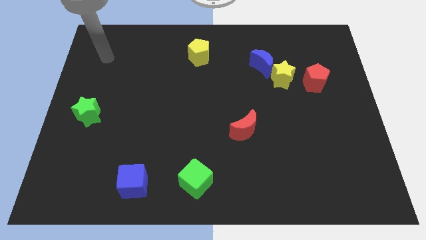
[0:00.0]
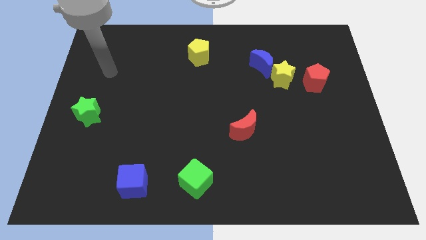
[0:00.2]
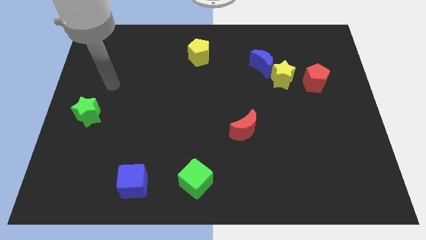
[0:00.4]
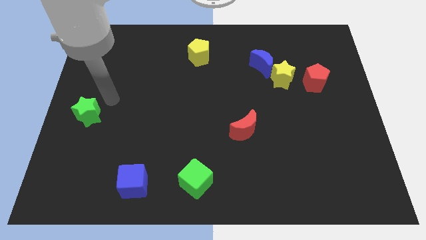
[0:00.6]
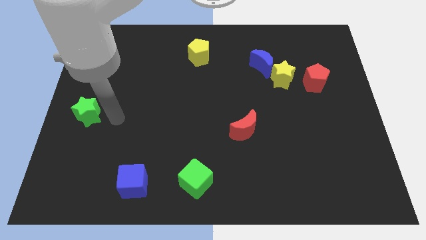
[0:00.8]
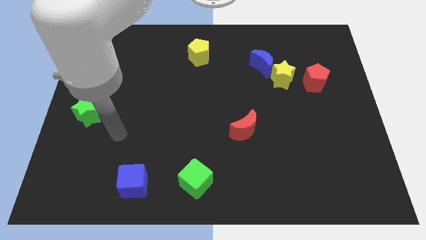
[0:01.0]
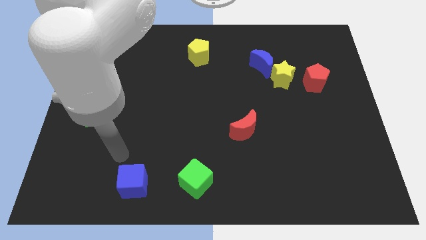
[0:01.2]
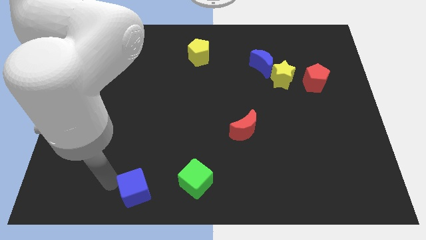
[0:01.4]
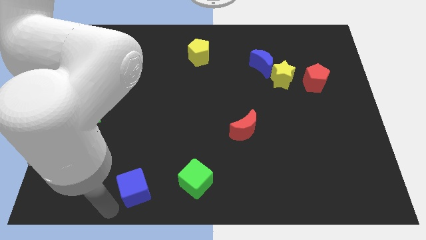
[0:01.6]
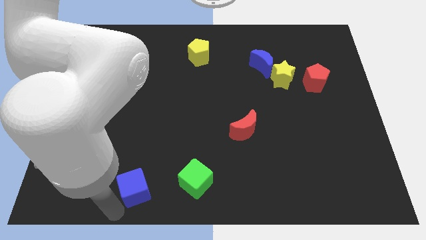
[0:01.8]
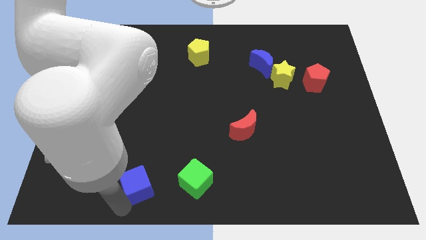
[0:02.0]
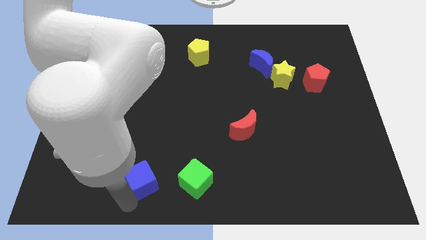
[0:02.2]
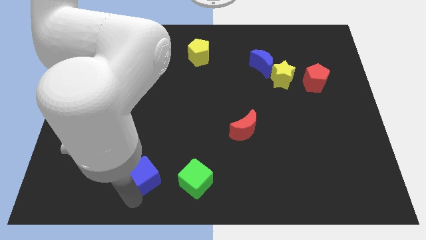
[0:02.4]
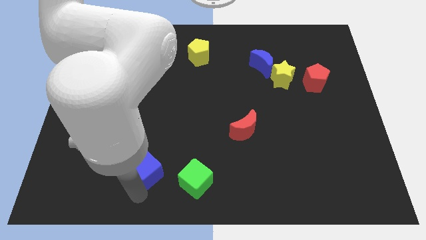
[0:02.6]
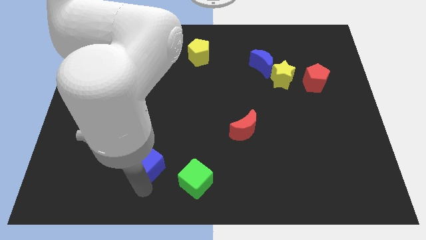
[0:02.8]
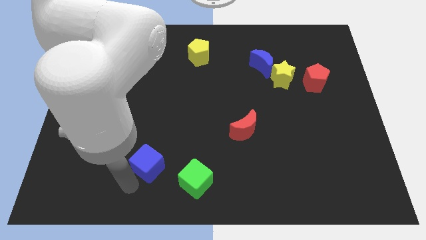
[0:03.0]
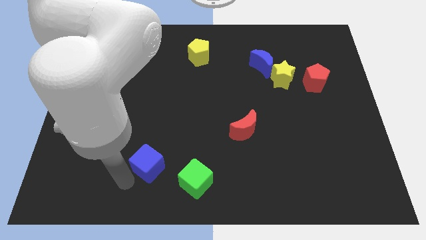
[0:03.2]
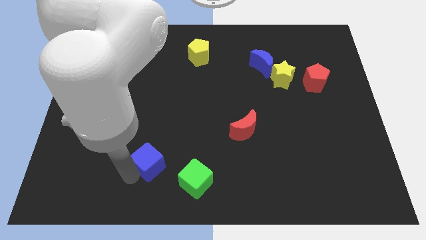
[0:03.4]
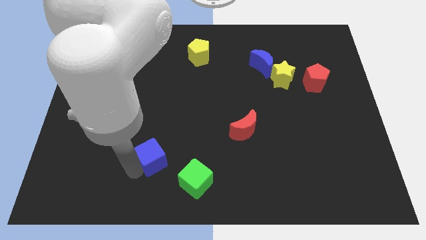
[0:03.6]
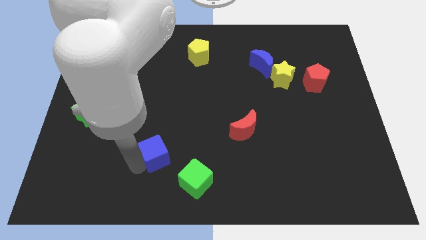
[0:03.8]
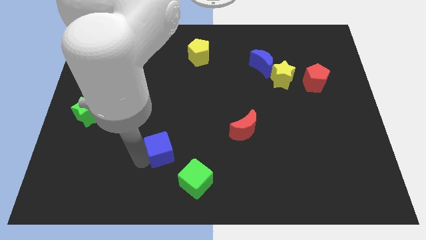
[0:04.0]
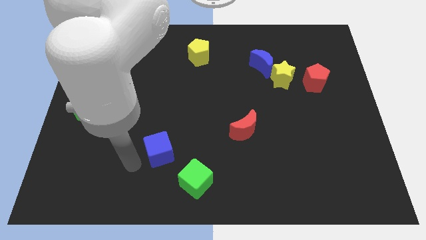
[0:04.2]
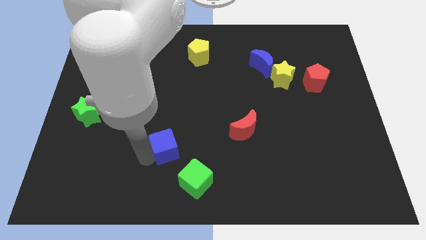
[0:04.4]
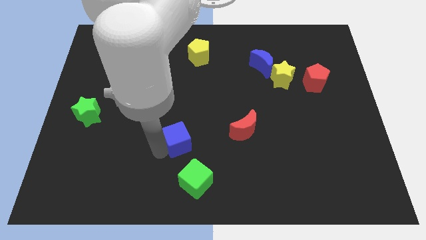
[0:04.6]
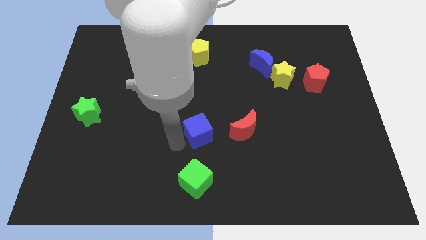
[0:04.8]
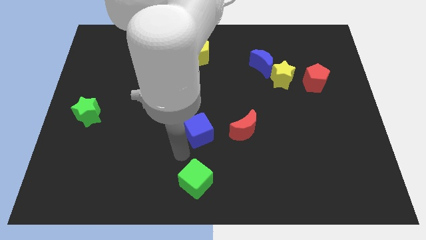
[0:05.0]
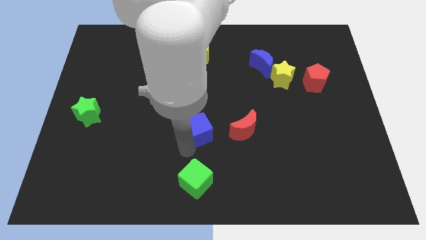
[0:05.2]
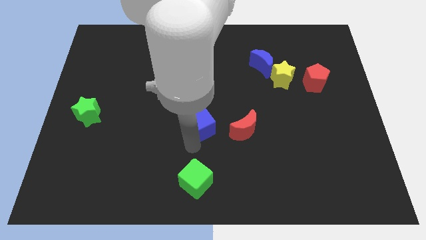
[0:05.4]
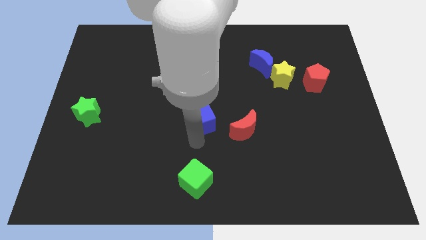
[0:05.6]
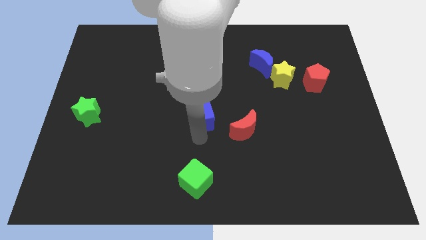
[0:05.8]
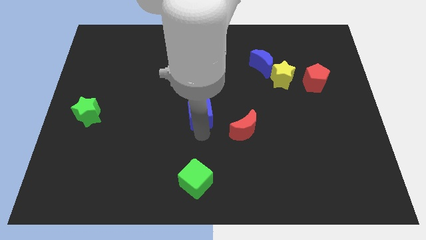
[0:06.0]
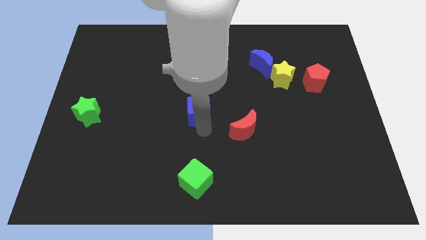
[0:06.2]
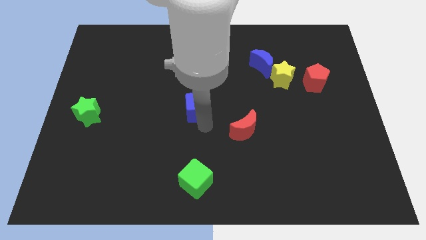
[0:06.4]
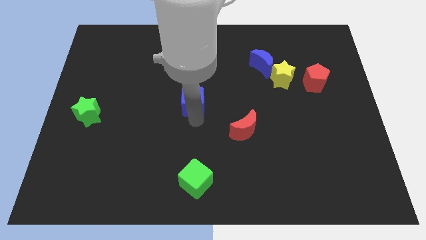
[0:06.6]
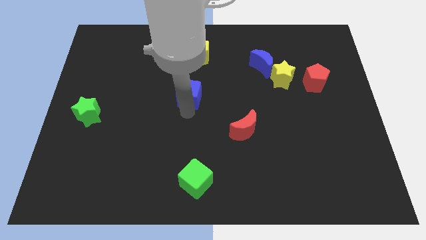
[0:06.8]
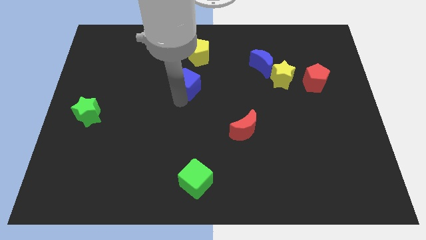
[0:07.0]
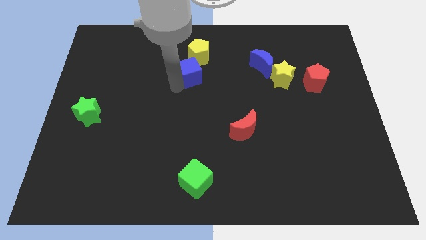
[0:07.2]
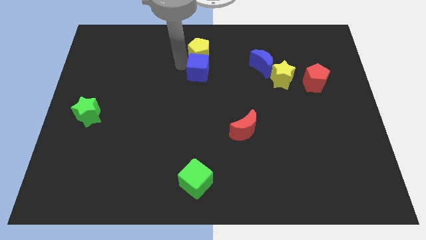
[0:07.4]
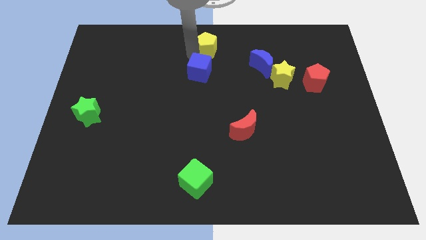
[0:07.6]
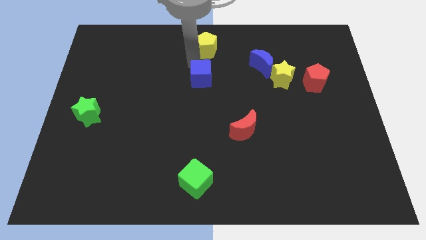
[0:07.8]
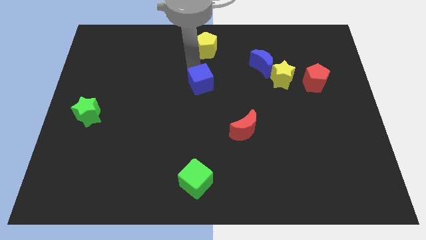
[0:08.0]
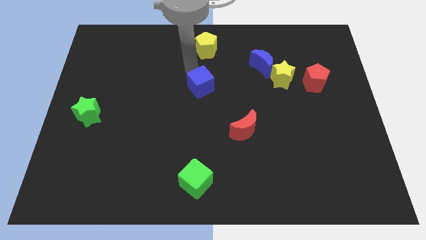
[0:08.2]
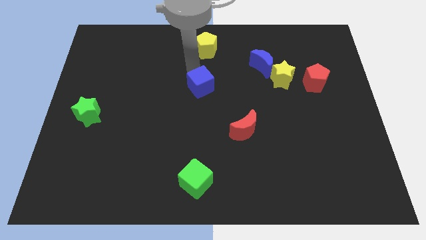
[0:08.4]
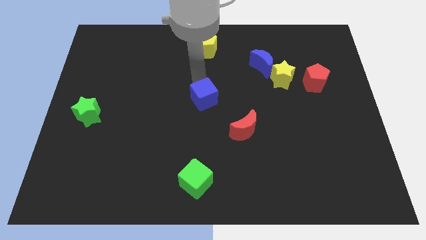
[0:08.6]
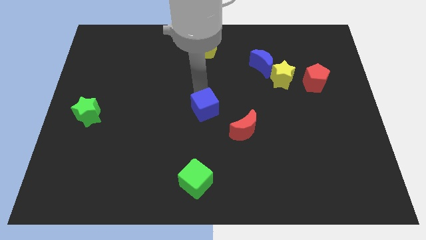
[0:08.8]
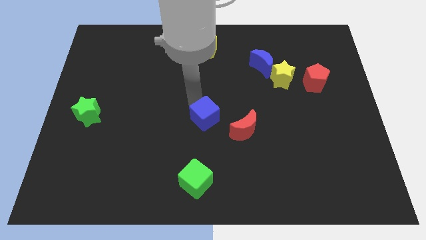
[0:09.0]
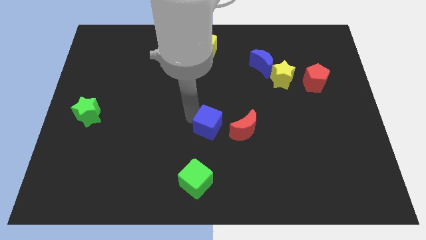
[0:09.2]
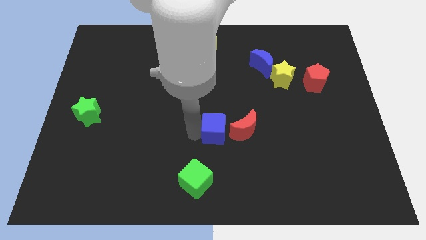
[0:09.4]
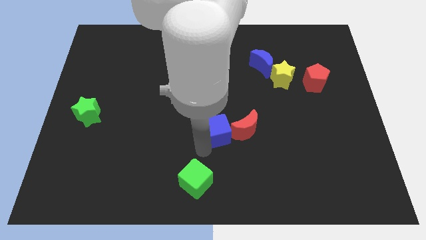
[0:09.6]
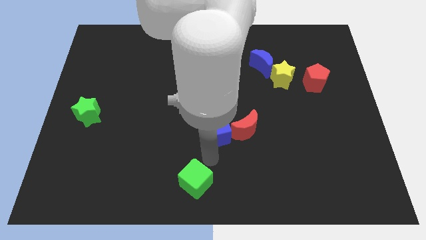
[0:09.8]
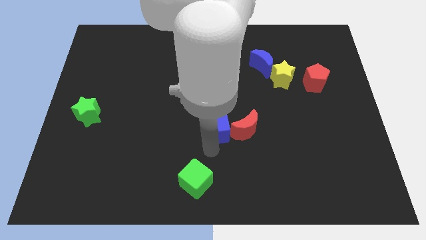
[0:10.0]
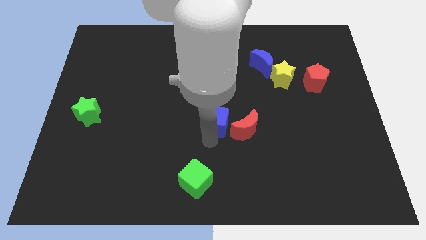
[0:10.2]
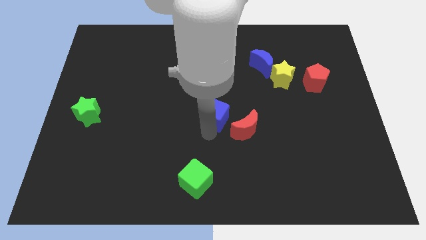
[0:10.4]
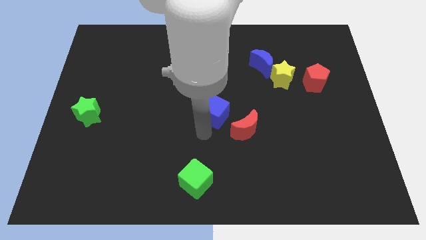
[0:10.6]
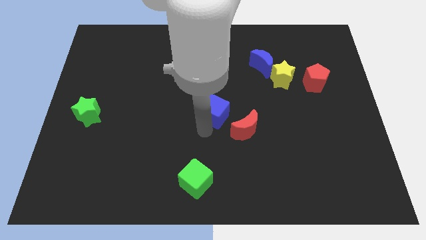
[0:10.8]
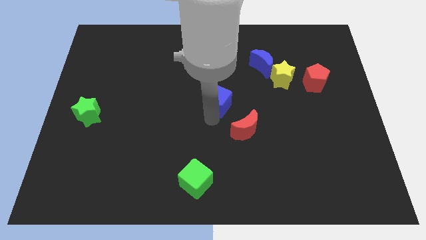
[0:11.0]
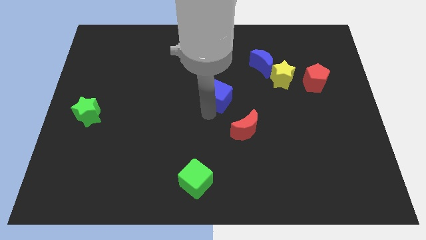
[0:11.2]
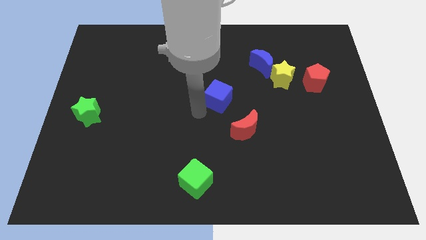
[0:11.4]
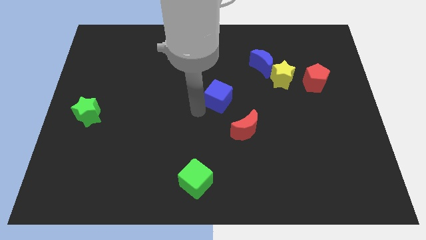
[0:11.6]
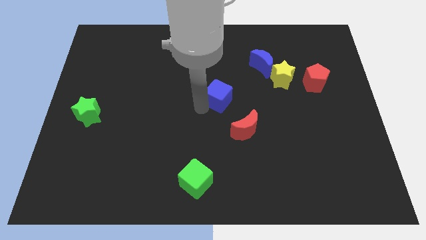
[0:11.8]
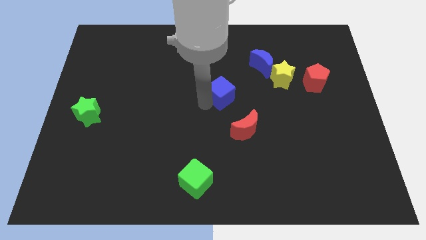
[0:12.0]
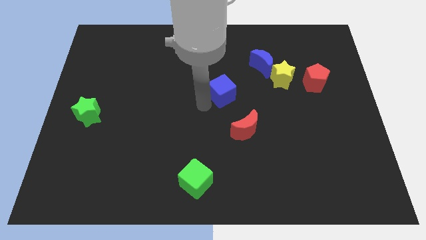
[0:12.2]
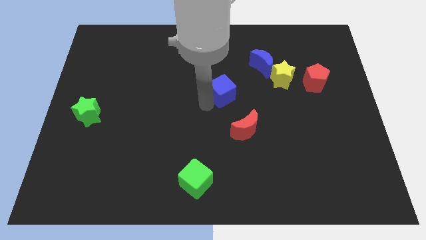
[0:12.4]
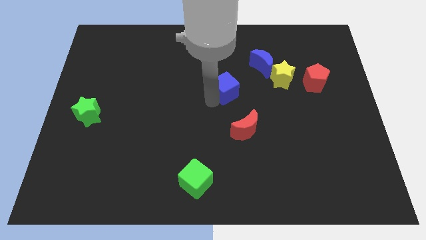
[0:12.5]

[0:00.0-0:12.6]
slide the blue cube to the bottom left of the blue moon
